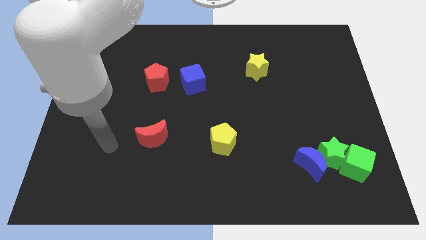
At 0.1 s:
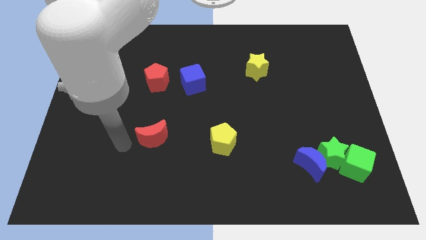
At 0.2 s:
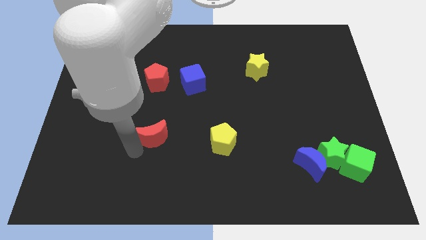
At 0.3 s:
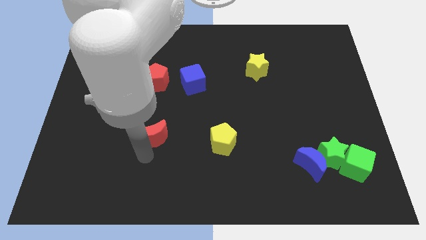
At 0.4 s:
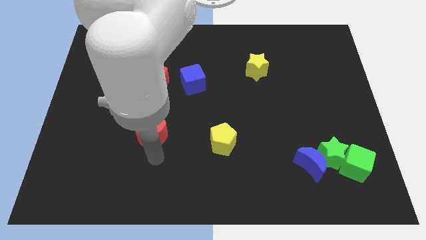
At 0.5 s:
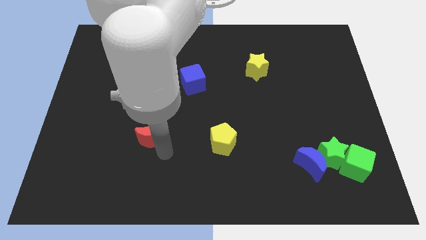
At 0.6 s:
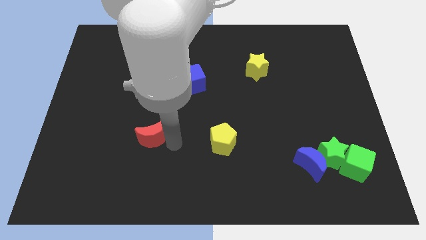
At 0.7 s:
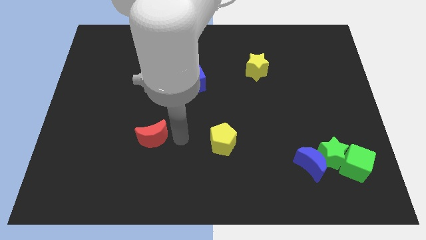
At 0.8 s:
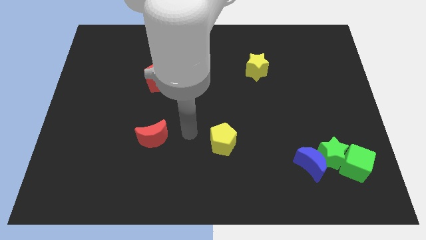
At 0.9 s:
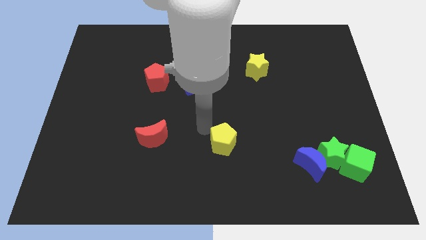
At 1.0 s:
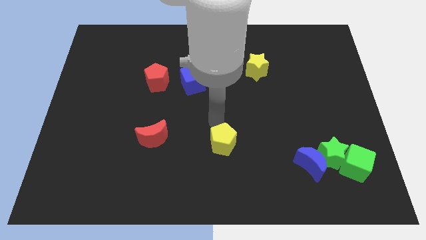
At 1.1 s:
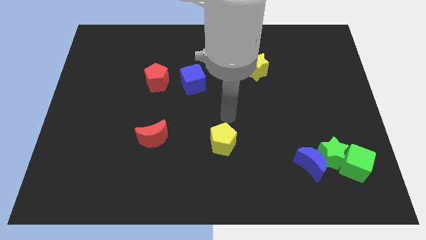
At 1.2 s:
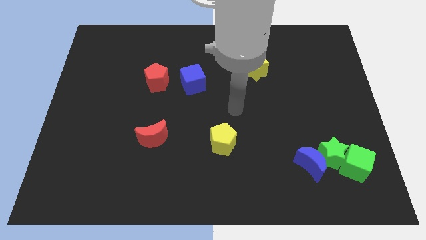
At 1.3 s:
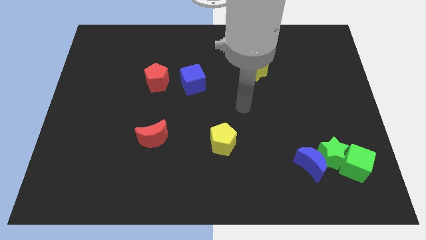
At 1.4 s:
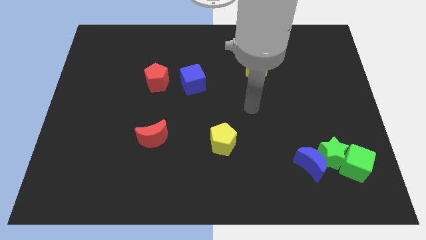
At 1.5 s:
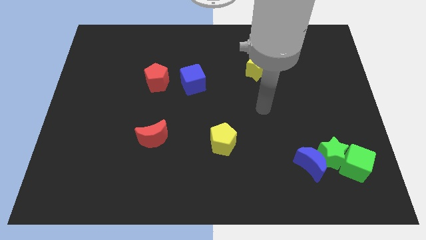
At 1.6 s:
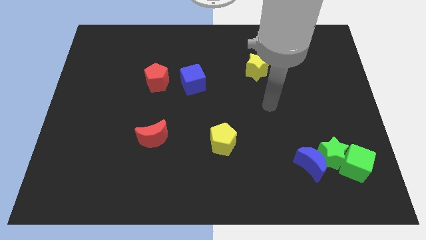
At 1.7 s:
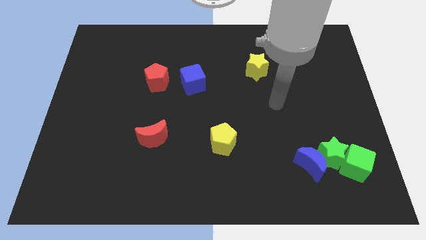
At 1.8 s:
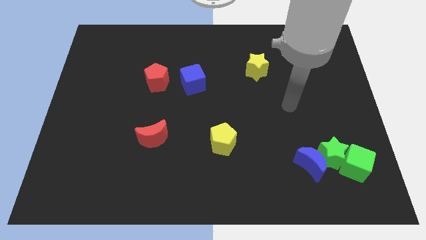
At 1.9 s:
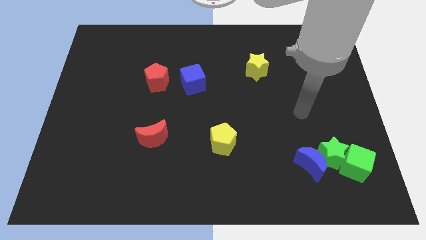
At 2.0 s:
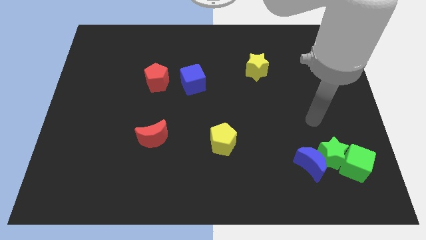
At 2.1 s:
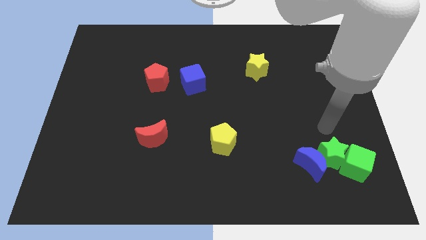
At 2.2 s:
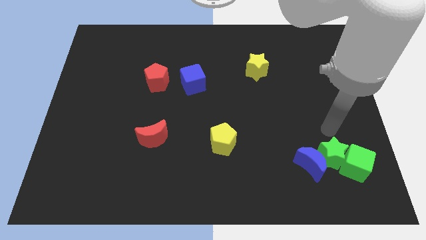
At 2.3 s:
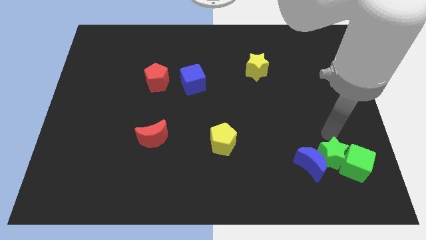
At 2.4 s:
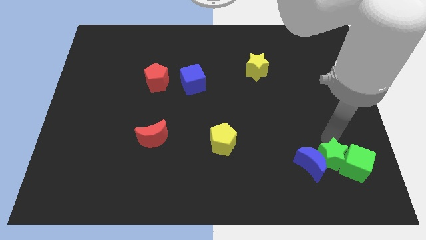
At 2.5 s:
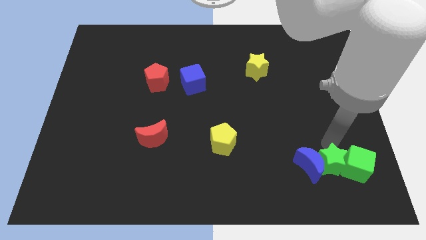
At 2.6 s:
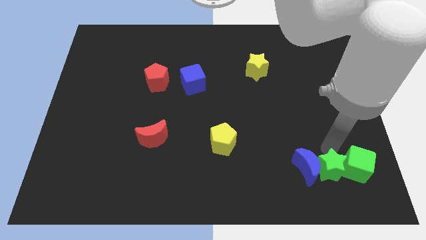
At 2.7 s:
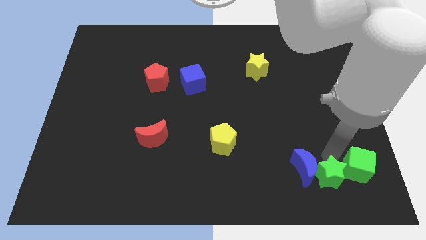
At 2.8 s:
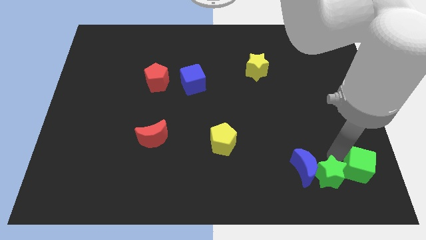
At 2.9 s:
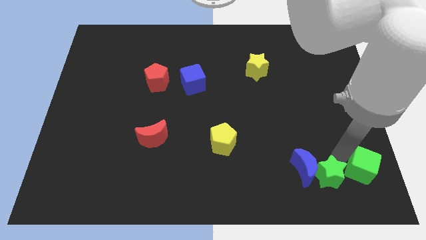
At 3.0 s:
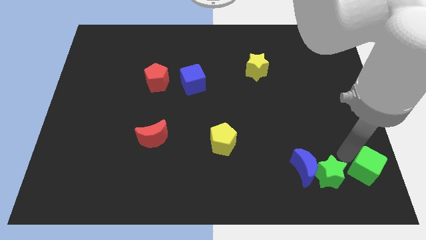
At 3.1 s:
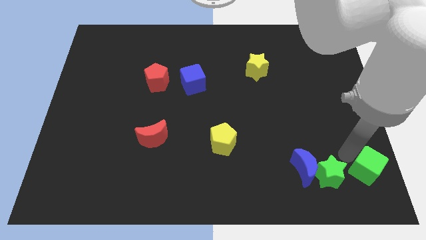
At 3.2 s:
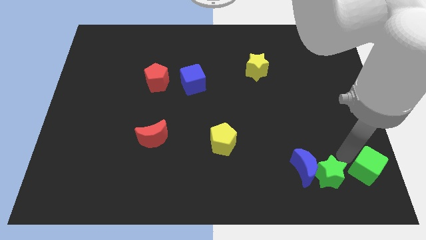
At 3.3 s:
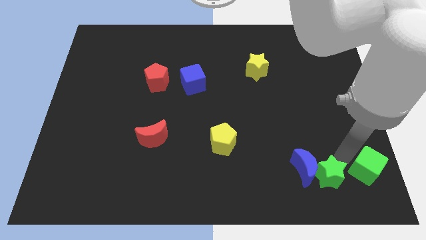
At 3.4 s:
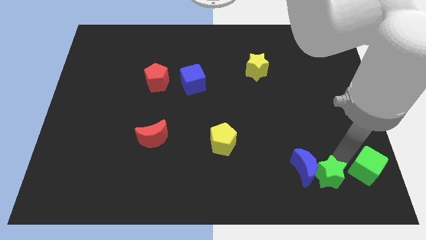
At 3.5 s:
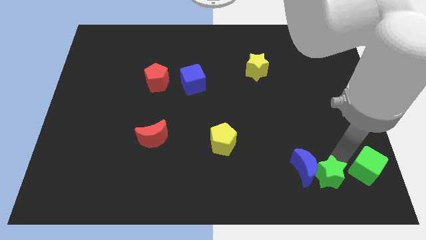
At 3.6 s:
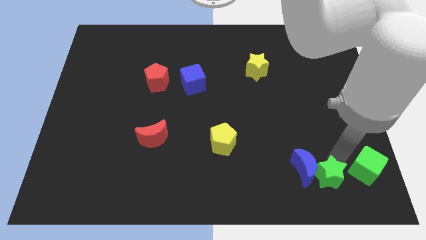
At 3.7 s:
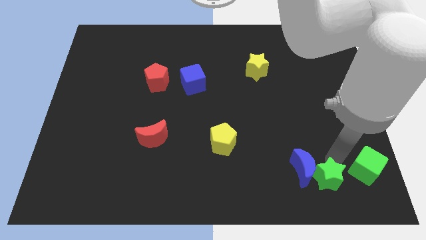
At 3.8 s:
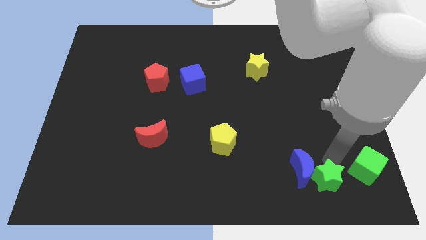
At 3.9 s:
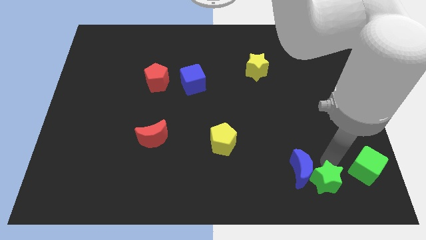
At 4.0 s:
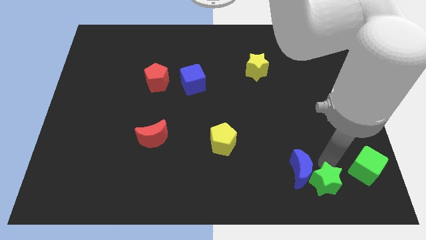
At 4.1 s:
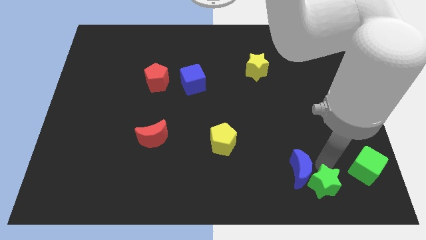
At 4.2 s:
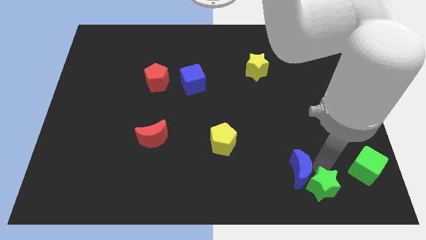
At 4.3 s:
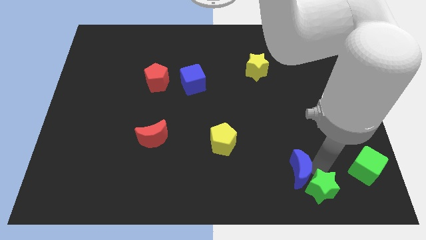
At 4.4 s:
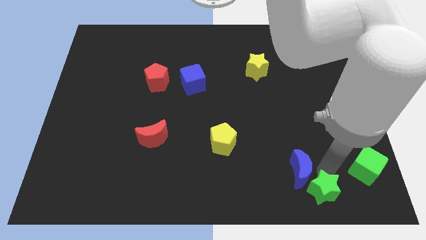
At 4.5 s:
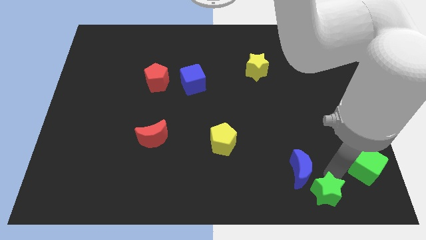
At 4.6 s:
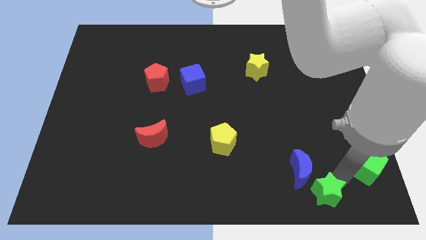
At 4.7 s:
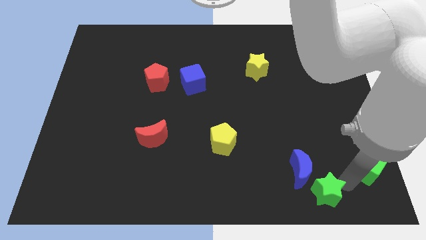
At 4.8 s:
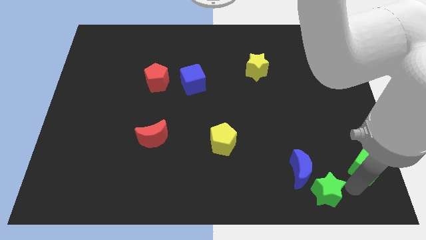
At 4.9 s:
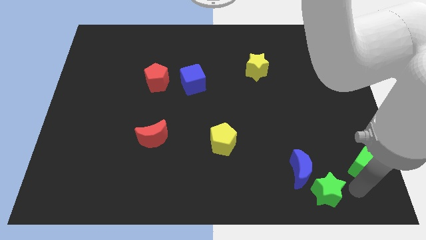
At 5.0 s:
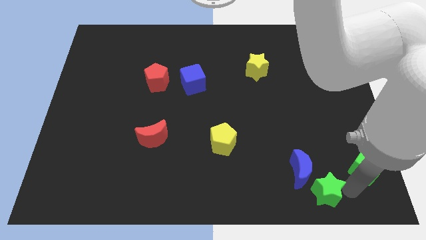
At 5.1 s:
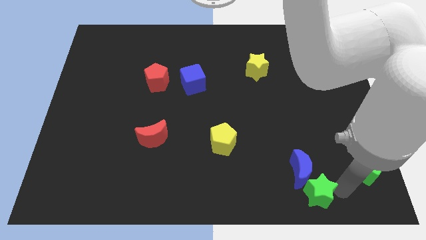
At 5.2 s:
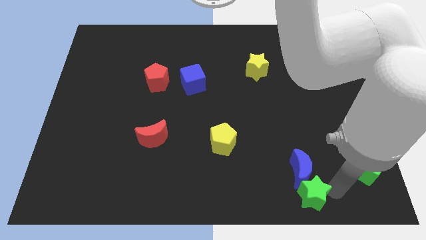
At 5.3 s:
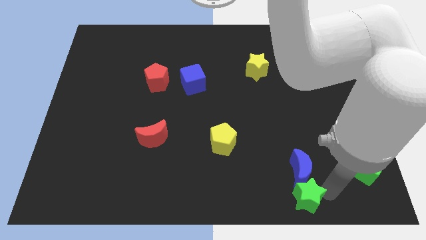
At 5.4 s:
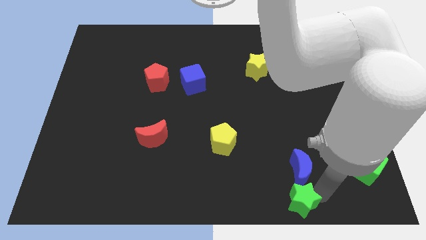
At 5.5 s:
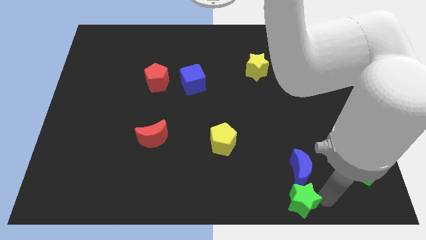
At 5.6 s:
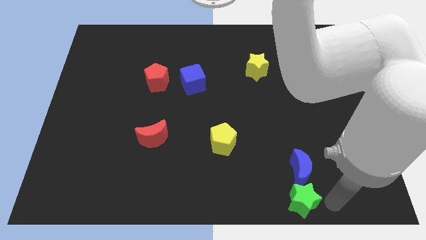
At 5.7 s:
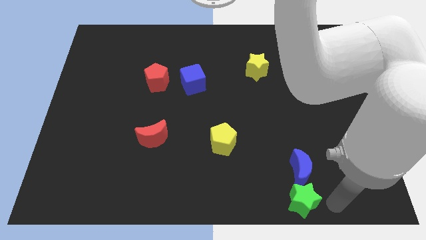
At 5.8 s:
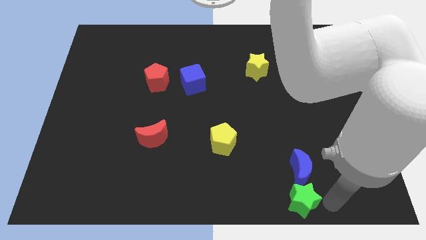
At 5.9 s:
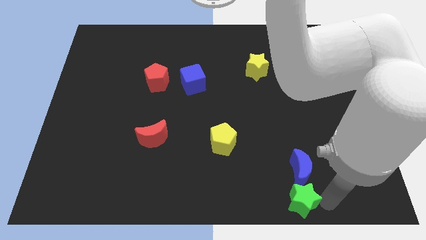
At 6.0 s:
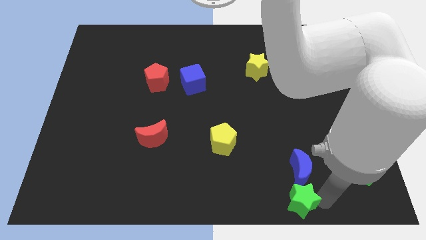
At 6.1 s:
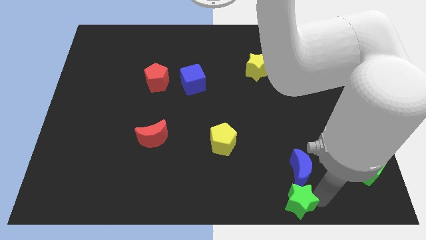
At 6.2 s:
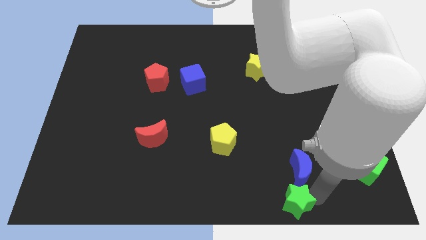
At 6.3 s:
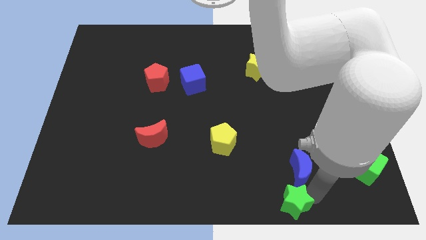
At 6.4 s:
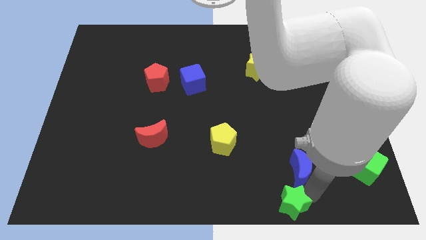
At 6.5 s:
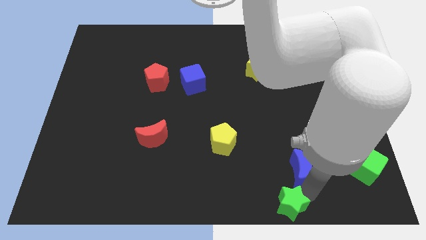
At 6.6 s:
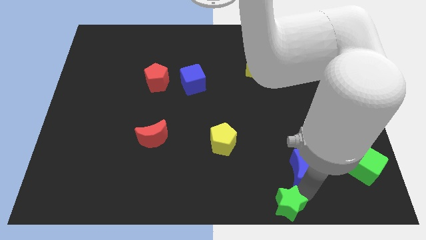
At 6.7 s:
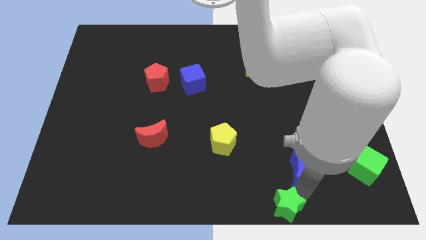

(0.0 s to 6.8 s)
move the green star to the bottom
